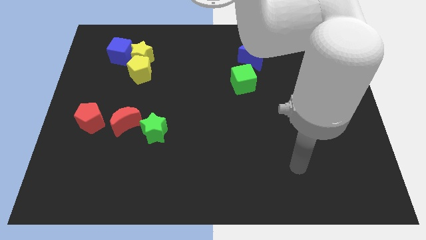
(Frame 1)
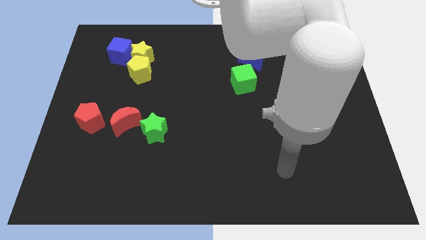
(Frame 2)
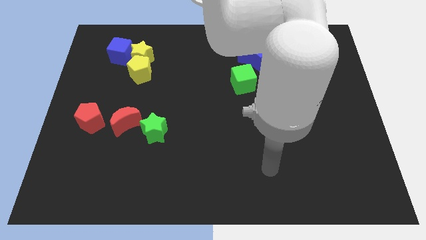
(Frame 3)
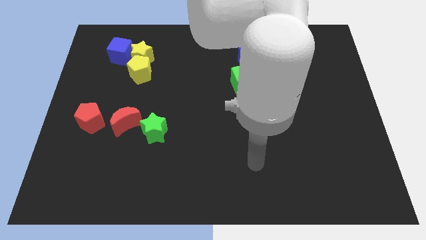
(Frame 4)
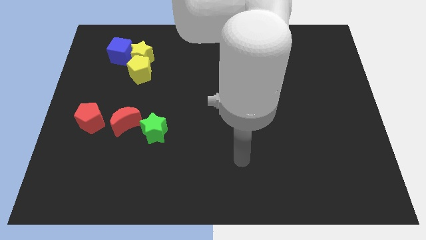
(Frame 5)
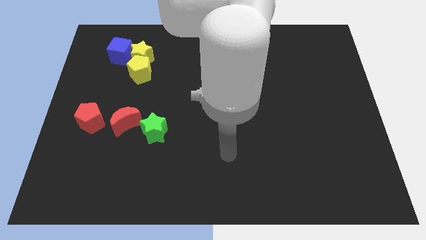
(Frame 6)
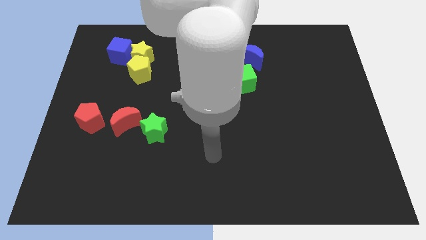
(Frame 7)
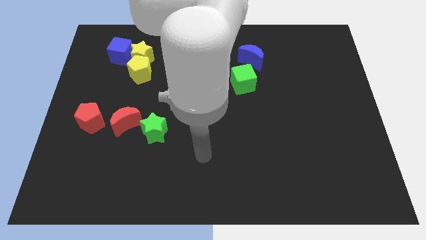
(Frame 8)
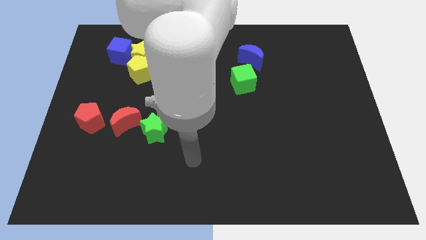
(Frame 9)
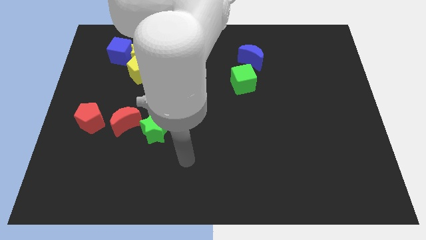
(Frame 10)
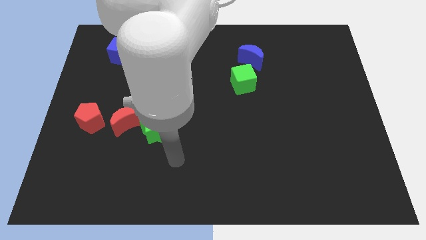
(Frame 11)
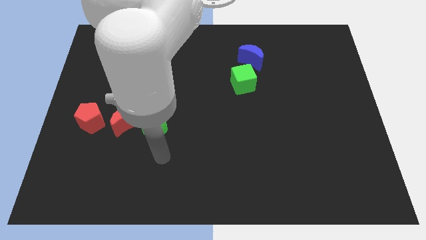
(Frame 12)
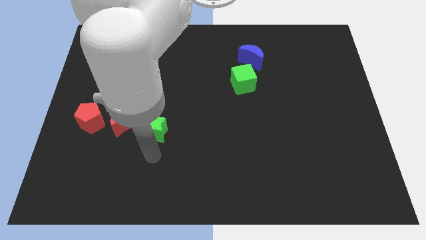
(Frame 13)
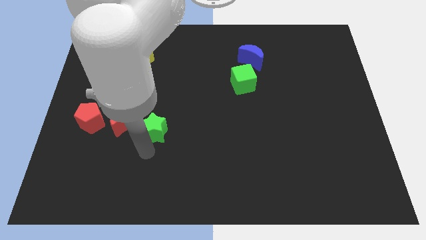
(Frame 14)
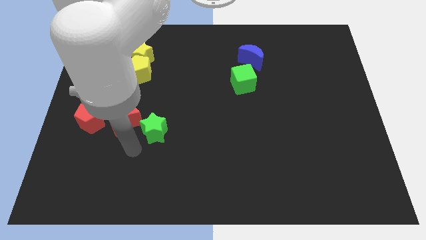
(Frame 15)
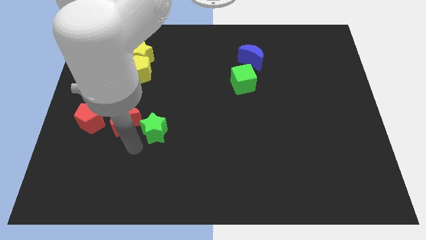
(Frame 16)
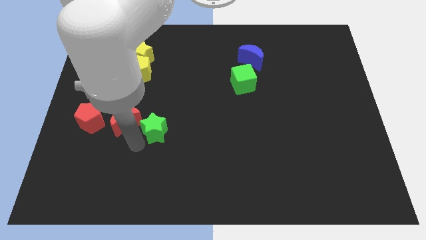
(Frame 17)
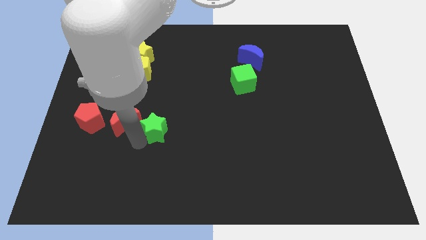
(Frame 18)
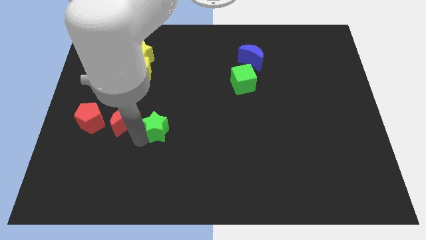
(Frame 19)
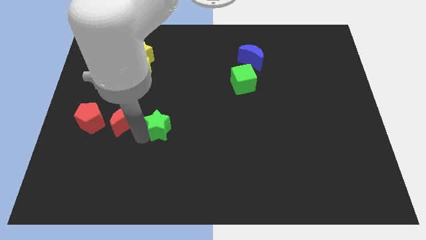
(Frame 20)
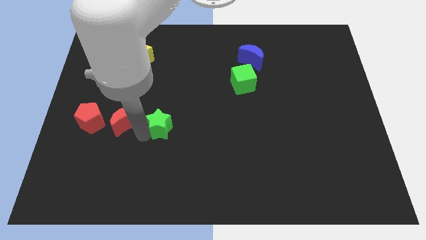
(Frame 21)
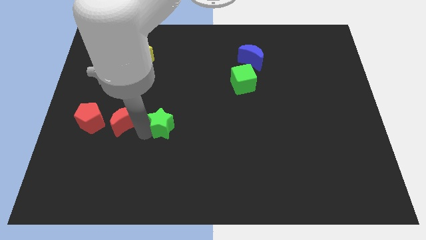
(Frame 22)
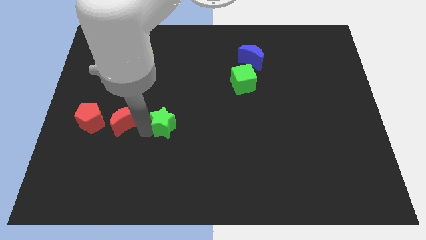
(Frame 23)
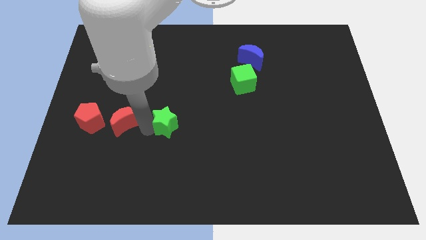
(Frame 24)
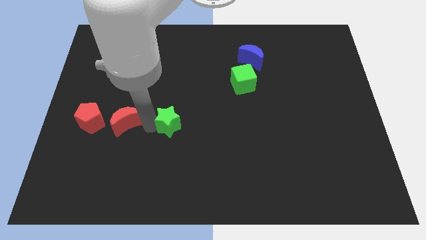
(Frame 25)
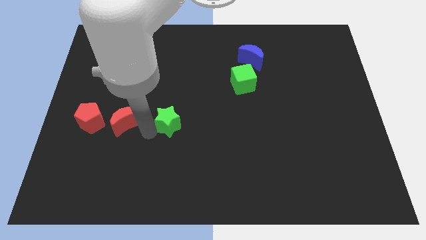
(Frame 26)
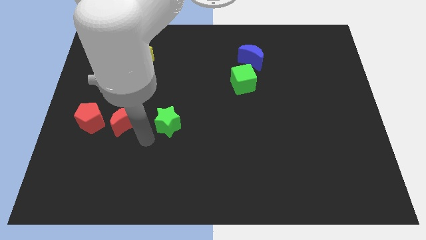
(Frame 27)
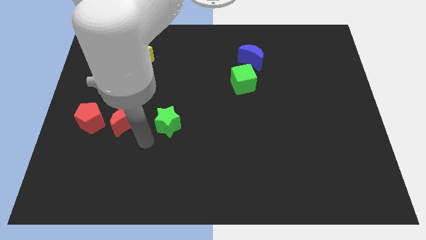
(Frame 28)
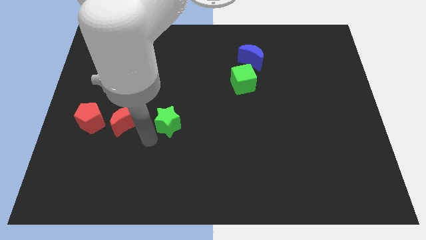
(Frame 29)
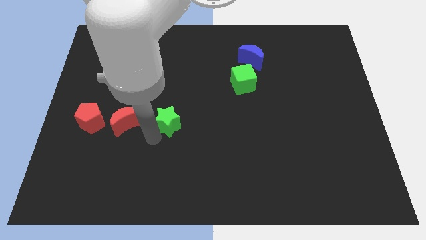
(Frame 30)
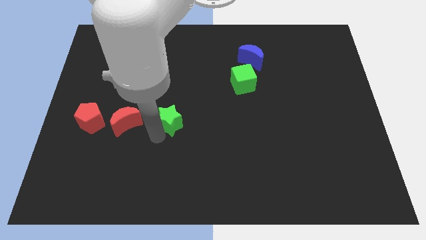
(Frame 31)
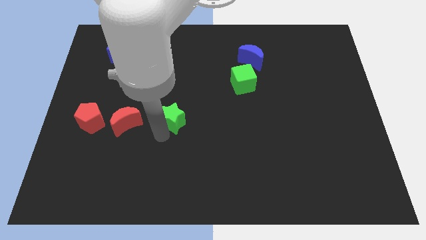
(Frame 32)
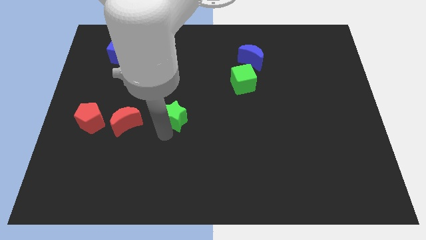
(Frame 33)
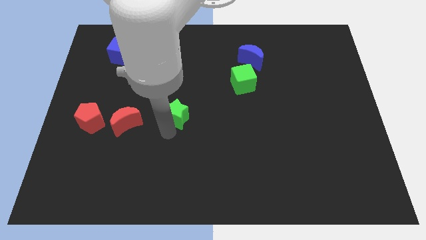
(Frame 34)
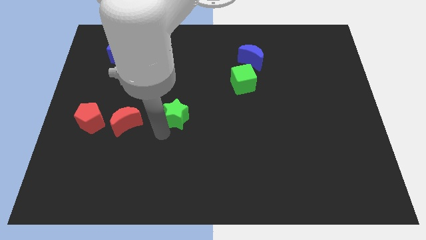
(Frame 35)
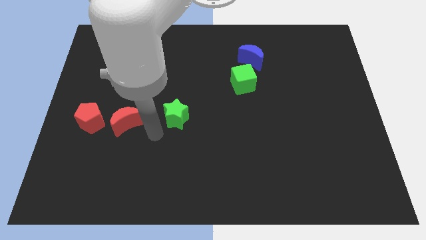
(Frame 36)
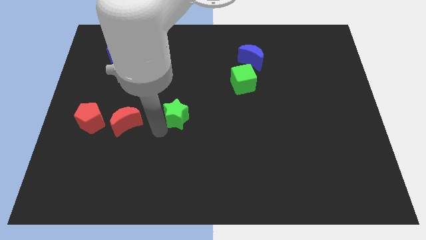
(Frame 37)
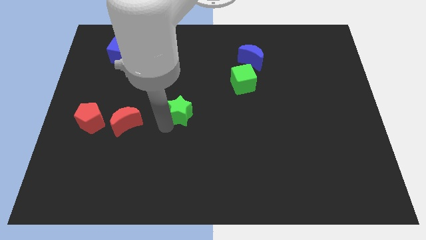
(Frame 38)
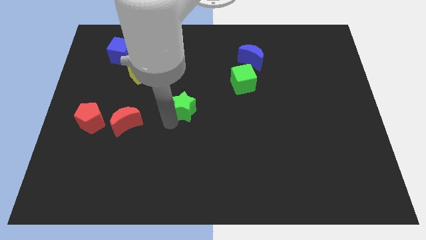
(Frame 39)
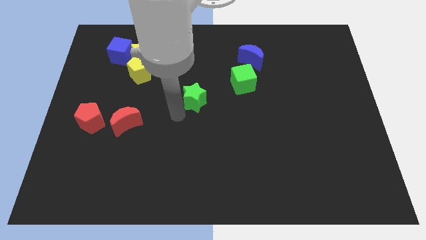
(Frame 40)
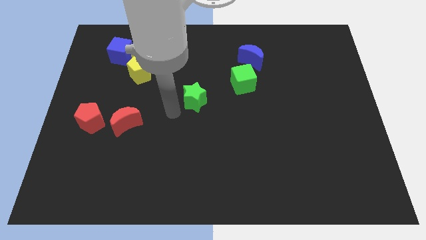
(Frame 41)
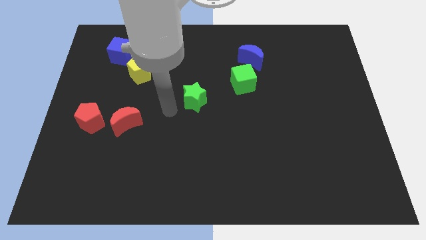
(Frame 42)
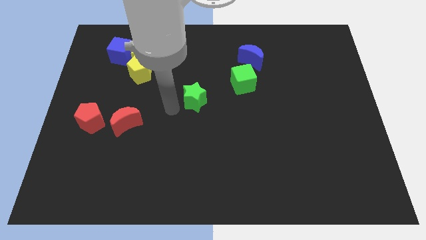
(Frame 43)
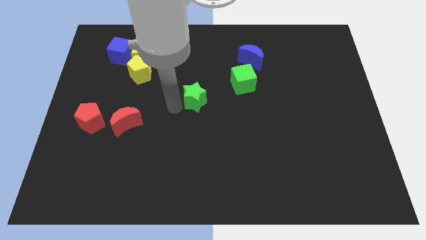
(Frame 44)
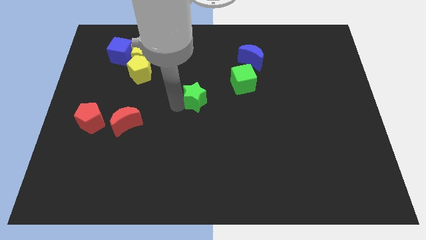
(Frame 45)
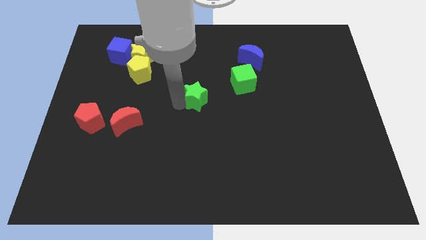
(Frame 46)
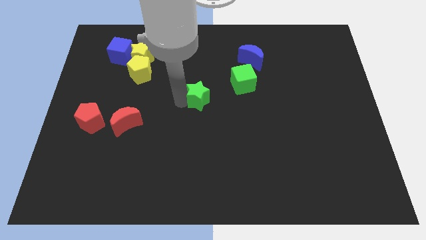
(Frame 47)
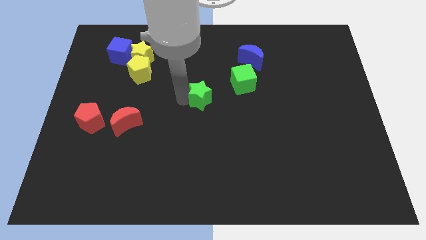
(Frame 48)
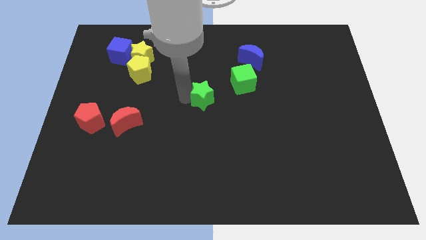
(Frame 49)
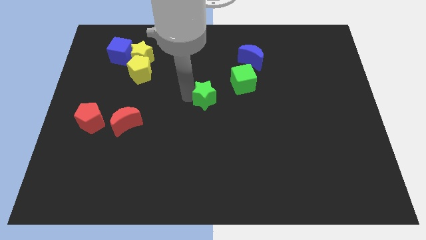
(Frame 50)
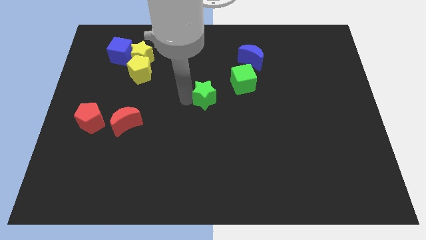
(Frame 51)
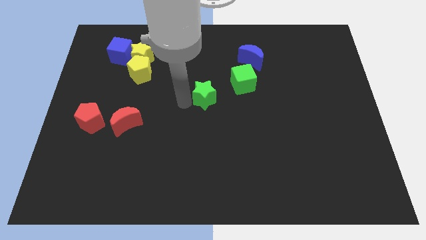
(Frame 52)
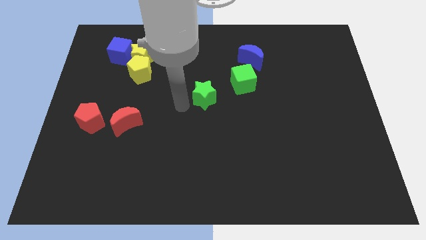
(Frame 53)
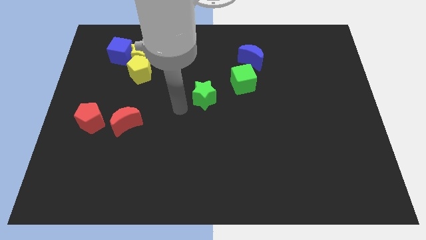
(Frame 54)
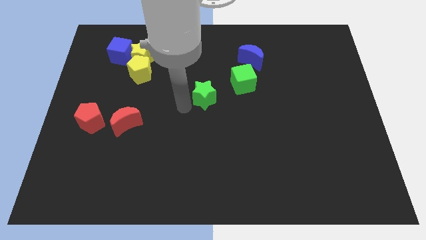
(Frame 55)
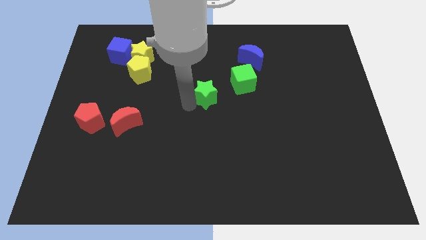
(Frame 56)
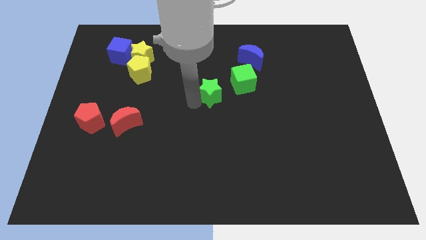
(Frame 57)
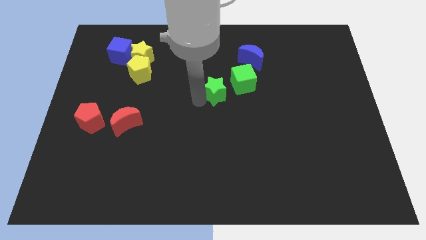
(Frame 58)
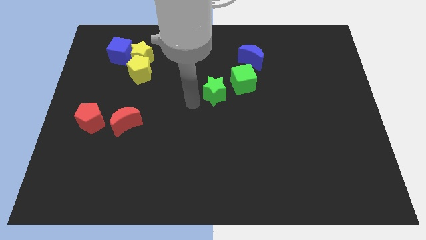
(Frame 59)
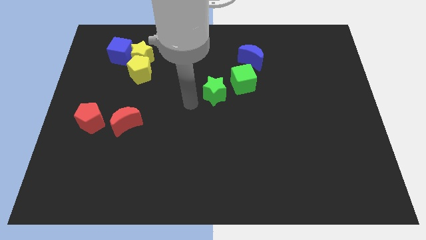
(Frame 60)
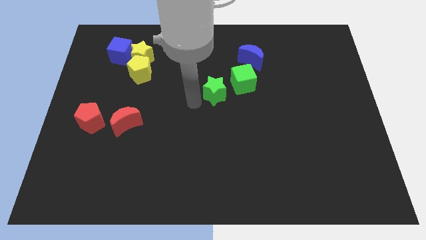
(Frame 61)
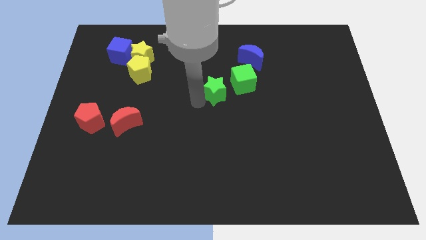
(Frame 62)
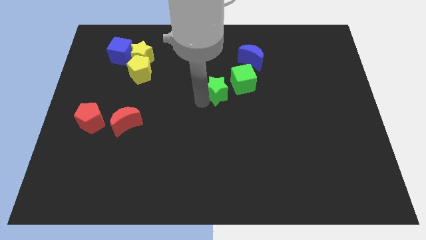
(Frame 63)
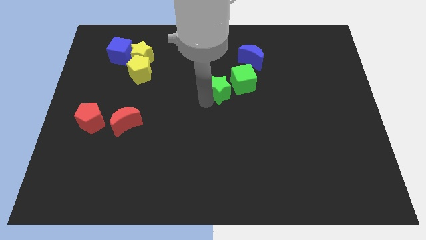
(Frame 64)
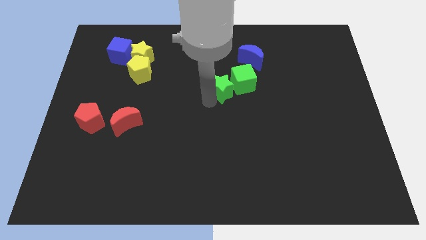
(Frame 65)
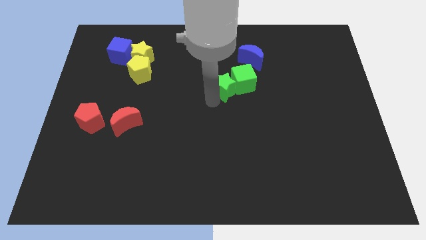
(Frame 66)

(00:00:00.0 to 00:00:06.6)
move the green star close to the green cube
